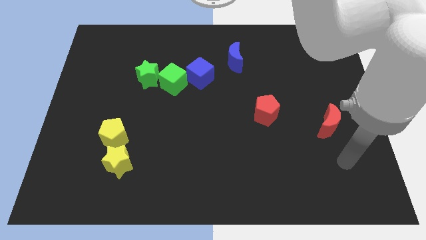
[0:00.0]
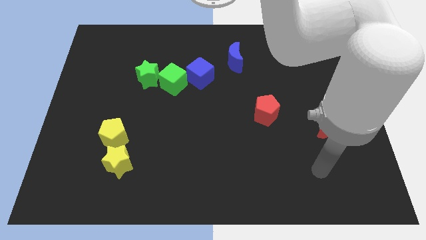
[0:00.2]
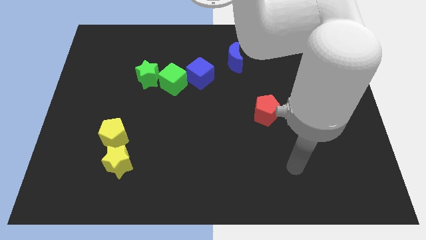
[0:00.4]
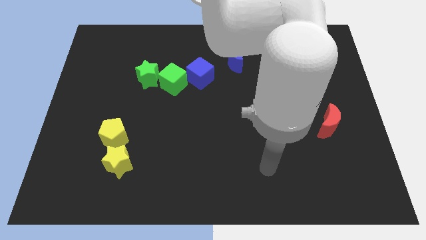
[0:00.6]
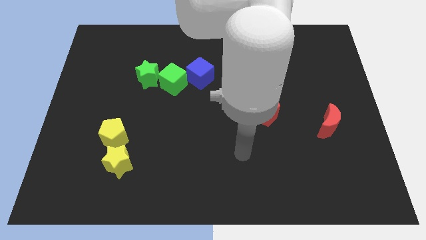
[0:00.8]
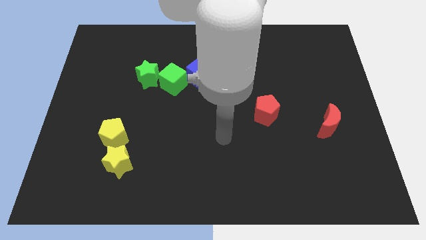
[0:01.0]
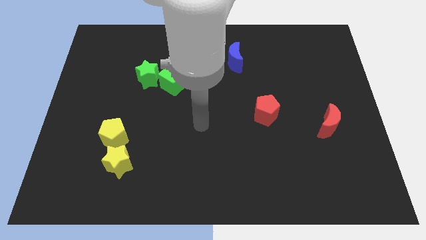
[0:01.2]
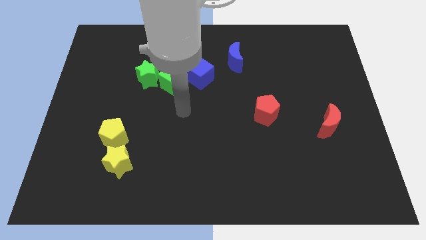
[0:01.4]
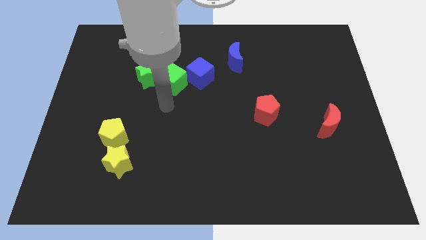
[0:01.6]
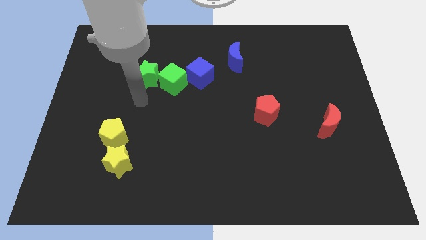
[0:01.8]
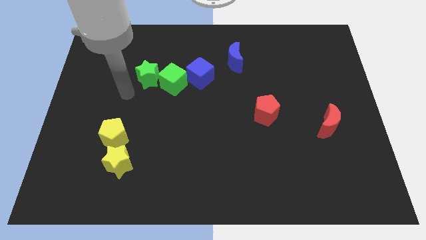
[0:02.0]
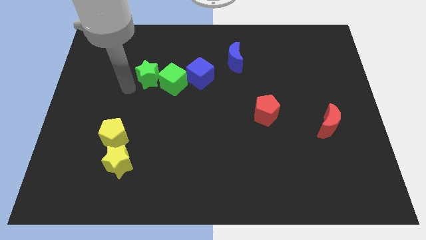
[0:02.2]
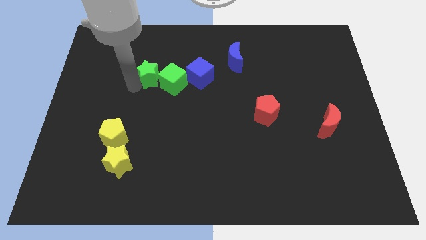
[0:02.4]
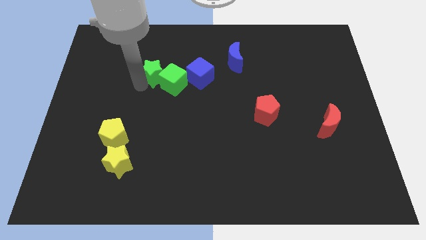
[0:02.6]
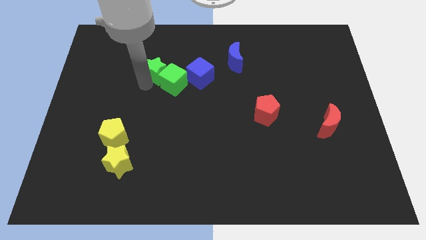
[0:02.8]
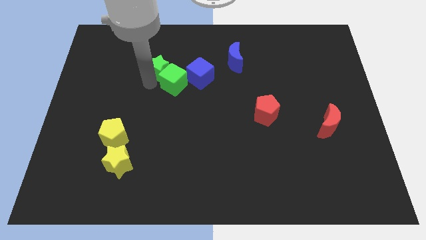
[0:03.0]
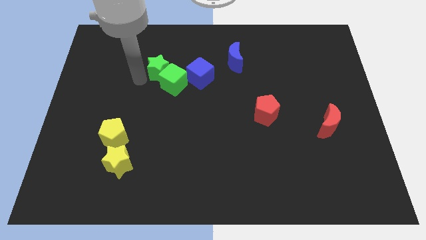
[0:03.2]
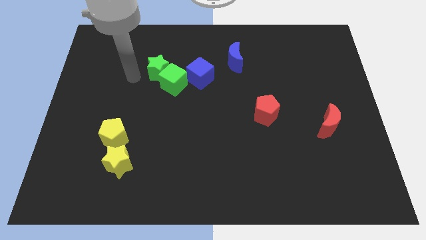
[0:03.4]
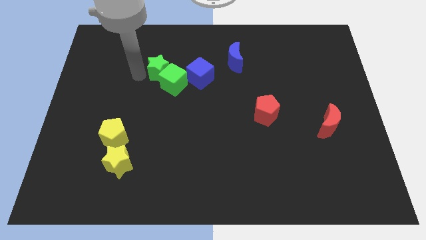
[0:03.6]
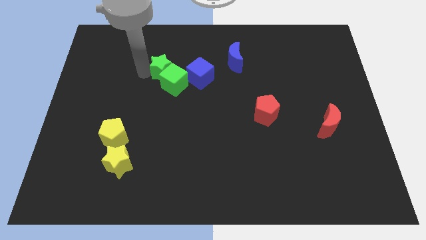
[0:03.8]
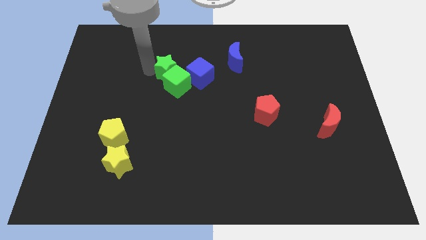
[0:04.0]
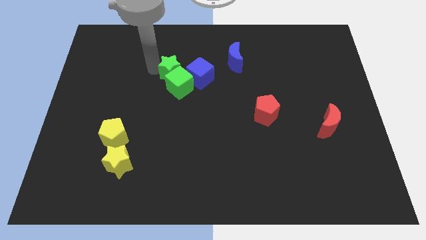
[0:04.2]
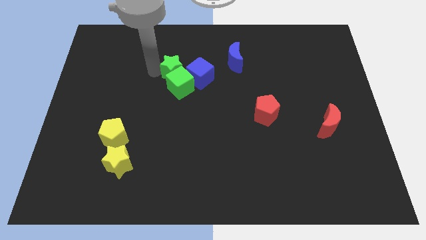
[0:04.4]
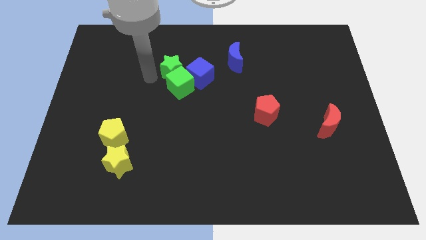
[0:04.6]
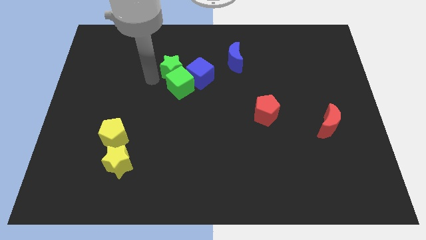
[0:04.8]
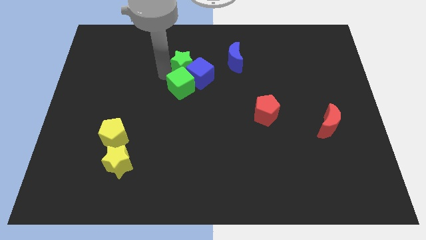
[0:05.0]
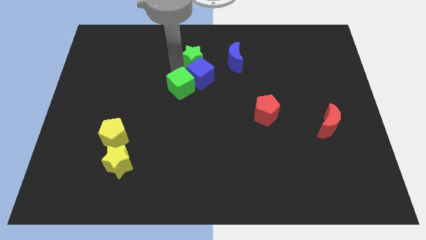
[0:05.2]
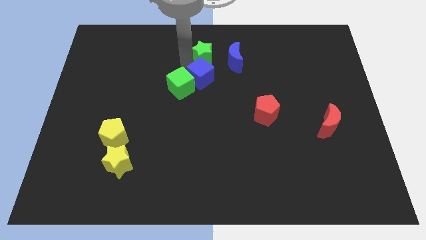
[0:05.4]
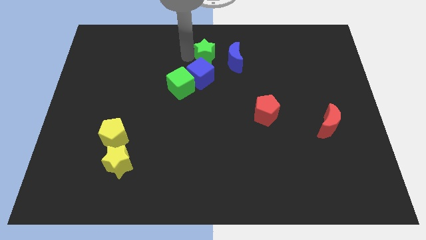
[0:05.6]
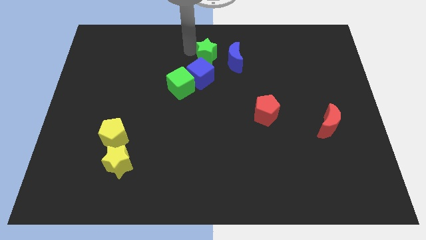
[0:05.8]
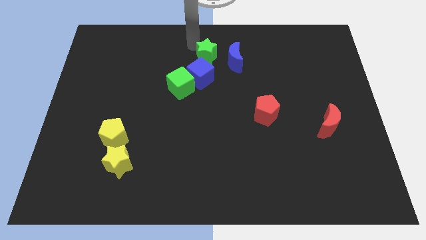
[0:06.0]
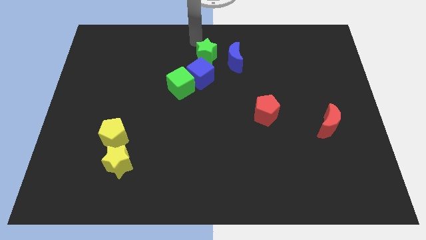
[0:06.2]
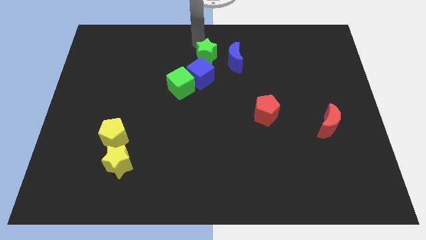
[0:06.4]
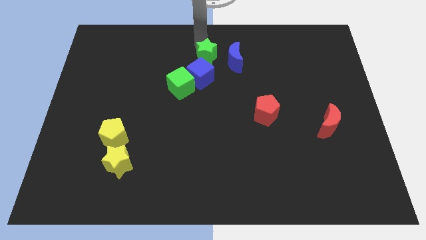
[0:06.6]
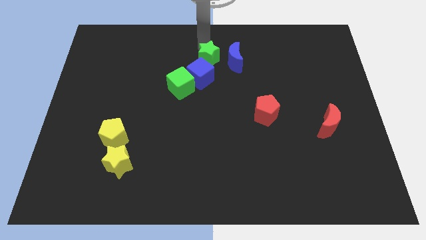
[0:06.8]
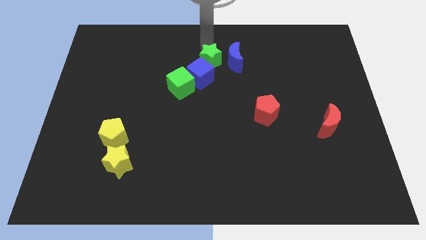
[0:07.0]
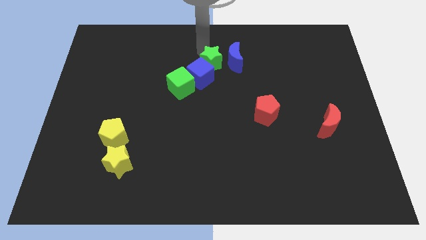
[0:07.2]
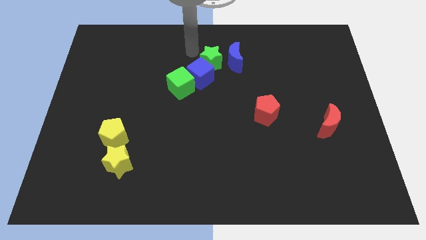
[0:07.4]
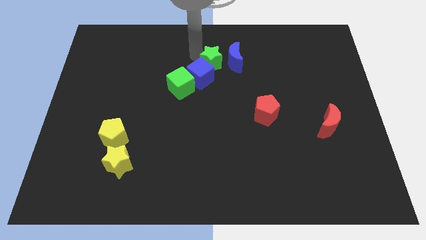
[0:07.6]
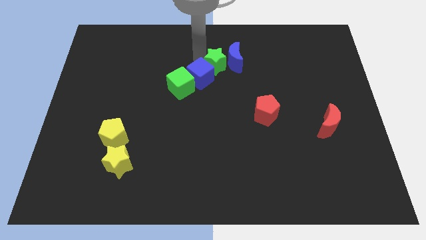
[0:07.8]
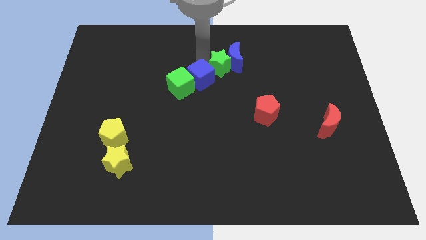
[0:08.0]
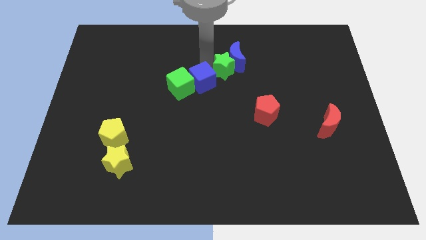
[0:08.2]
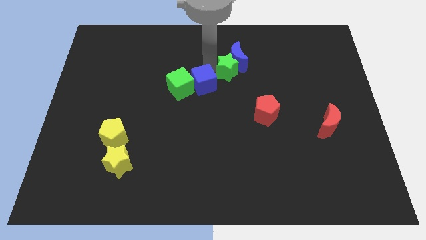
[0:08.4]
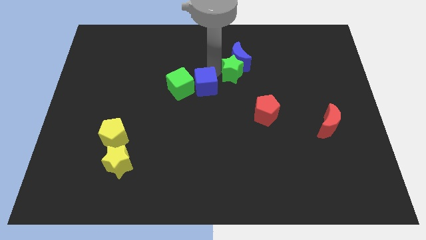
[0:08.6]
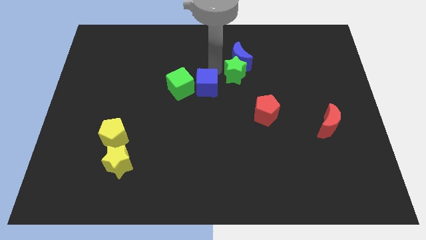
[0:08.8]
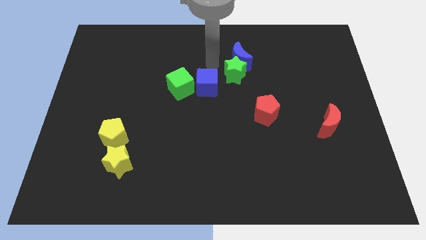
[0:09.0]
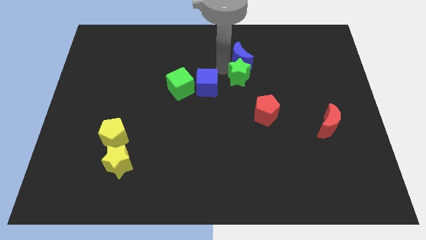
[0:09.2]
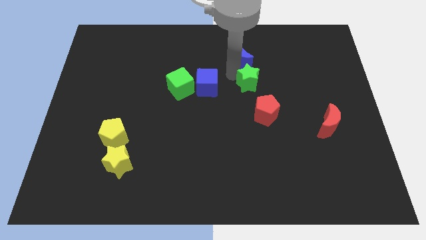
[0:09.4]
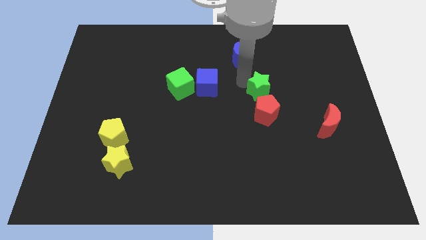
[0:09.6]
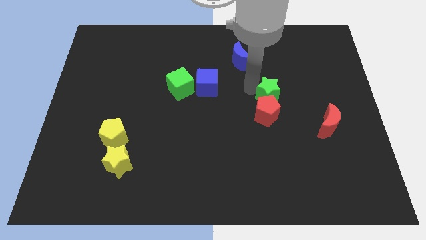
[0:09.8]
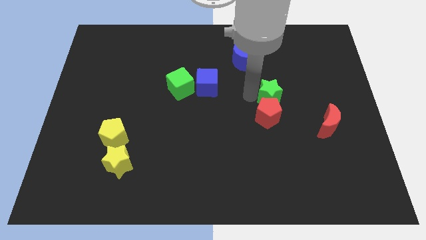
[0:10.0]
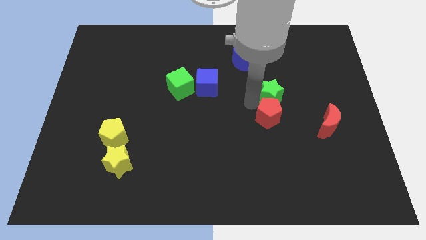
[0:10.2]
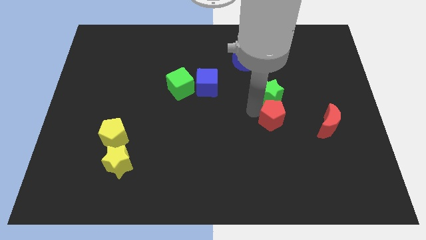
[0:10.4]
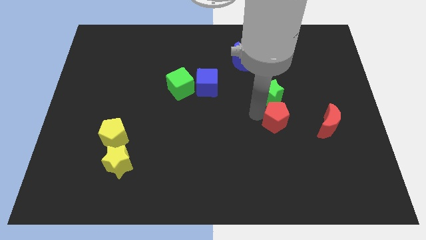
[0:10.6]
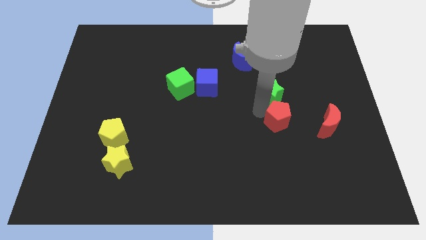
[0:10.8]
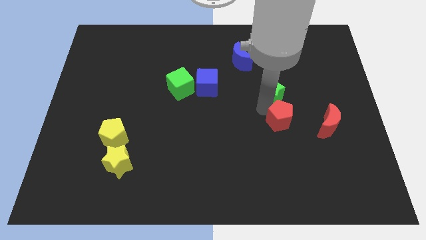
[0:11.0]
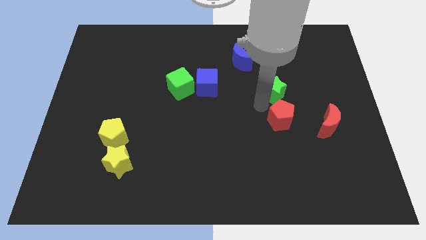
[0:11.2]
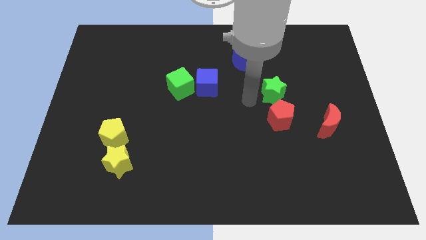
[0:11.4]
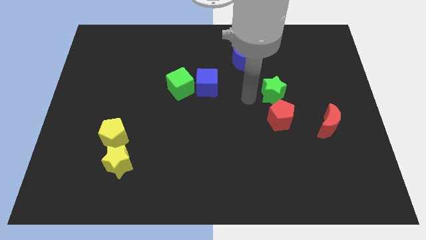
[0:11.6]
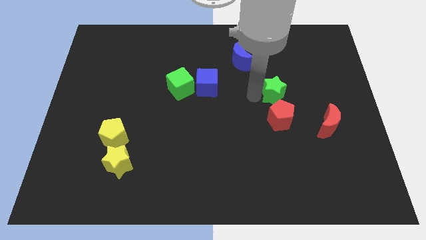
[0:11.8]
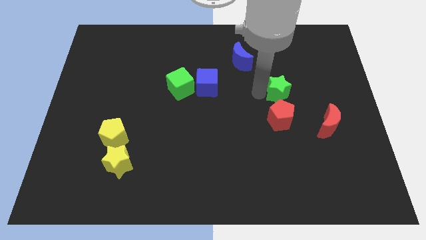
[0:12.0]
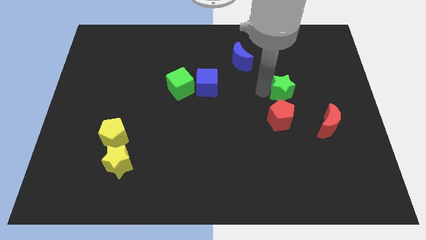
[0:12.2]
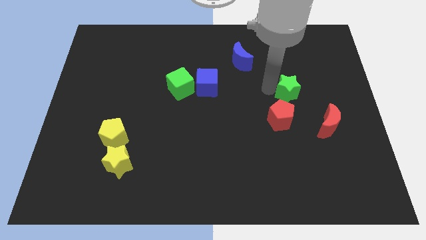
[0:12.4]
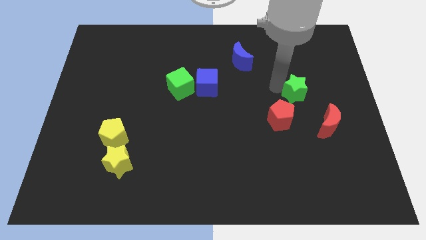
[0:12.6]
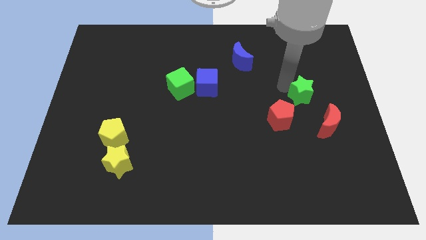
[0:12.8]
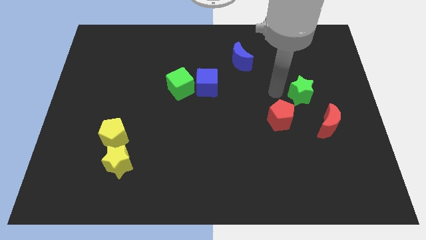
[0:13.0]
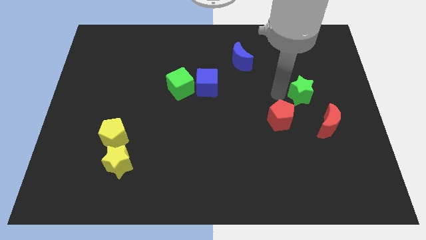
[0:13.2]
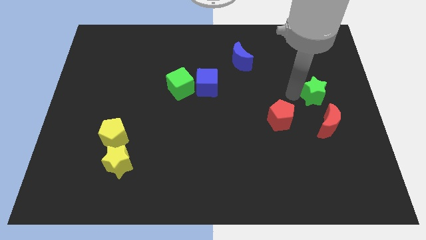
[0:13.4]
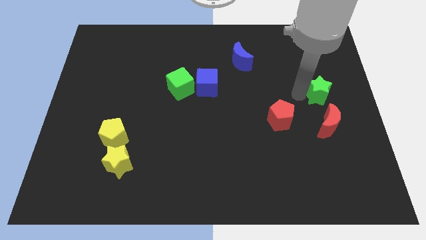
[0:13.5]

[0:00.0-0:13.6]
push the green star to the center right

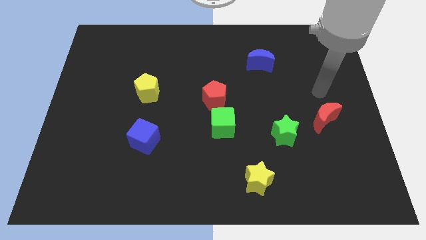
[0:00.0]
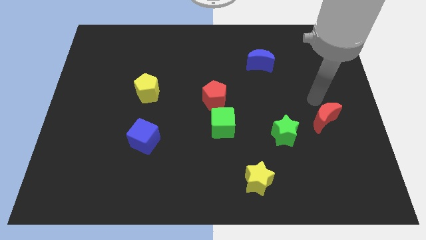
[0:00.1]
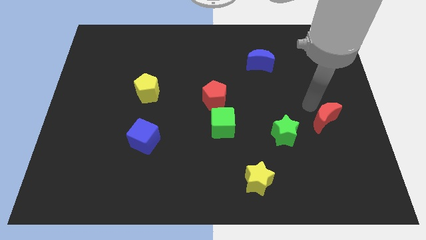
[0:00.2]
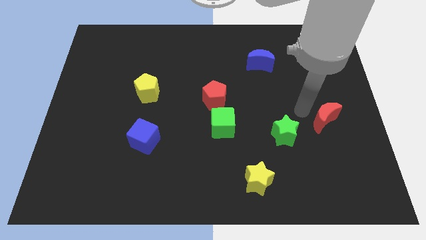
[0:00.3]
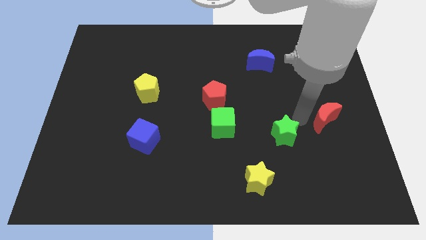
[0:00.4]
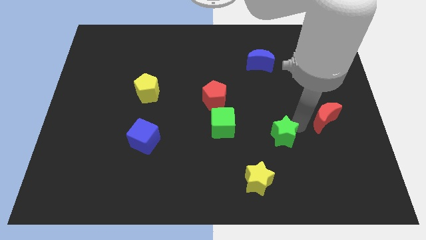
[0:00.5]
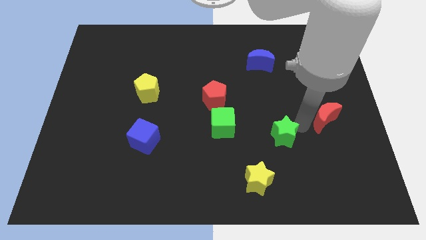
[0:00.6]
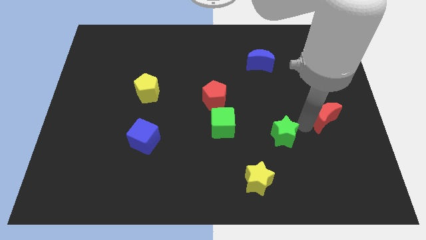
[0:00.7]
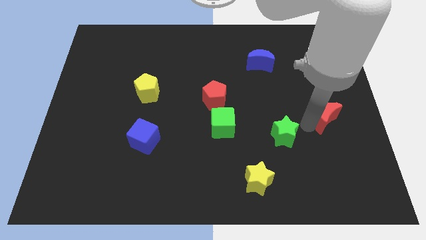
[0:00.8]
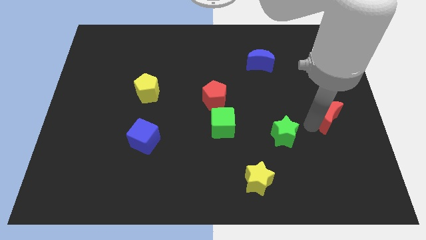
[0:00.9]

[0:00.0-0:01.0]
move the red moon to the right side
